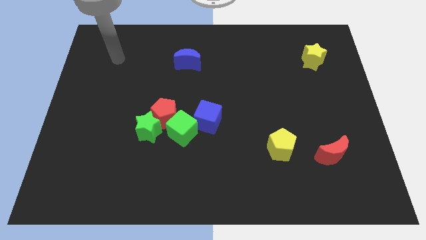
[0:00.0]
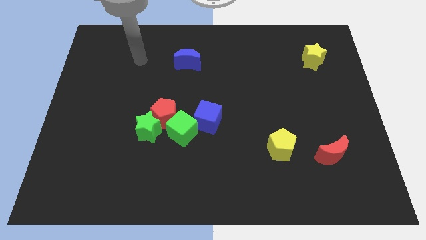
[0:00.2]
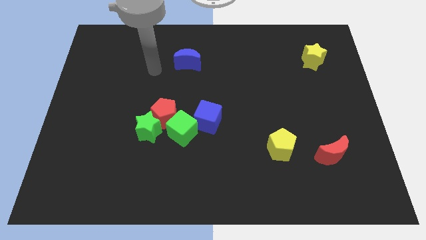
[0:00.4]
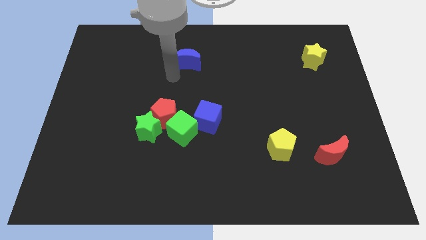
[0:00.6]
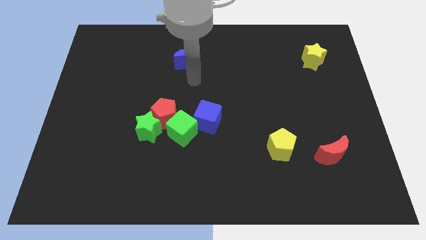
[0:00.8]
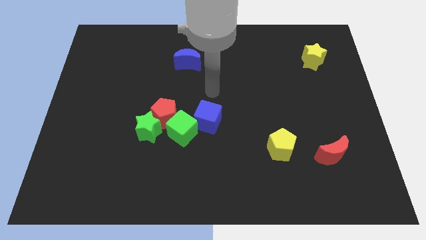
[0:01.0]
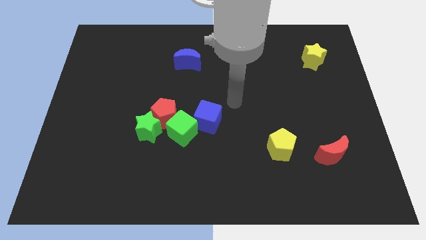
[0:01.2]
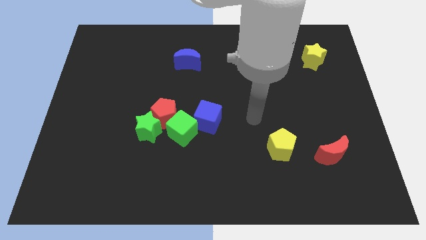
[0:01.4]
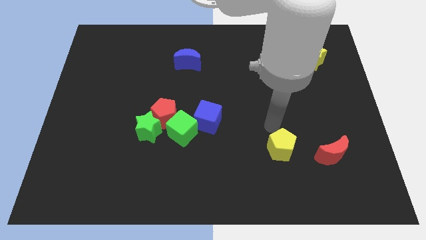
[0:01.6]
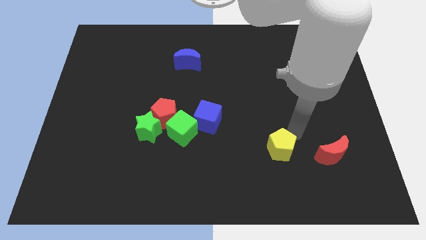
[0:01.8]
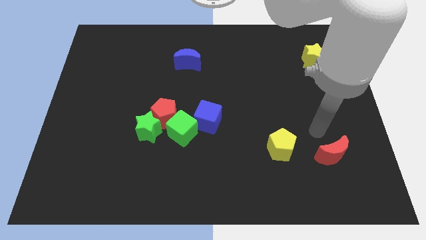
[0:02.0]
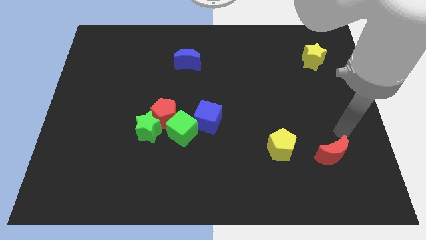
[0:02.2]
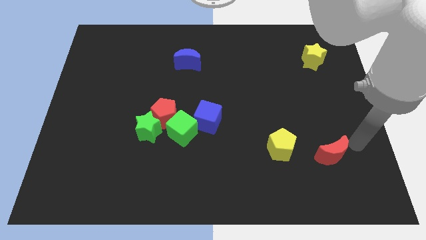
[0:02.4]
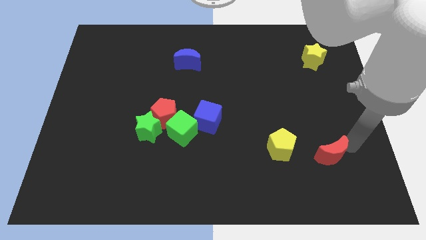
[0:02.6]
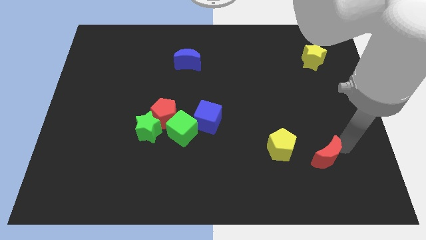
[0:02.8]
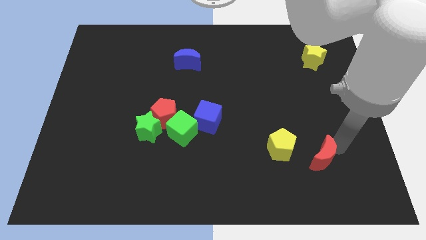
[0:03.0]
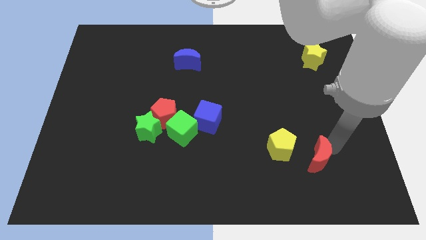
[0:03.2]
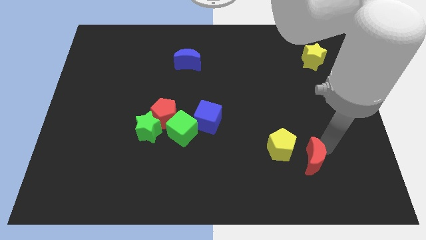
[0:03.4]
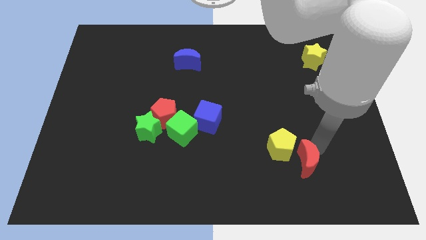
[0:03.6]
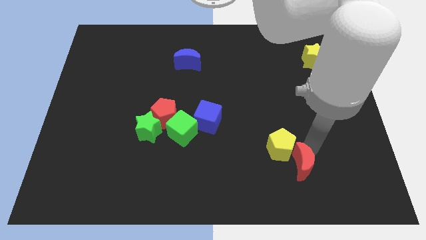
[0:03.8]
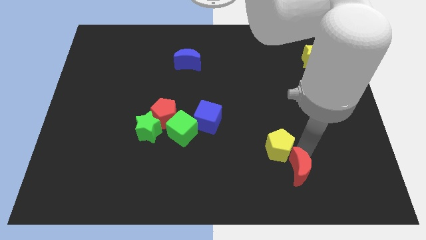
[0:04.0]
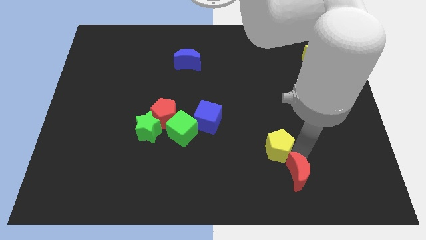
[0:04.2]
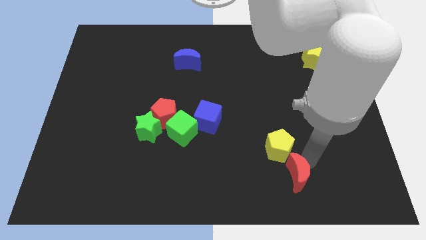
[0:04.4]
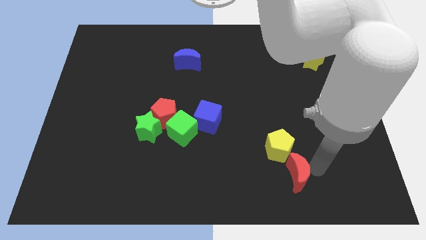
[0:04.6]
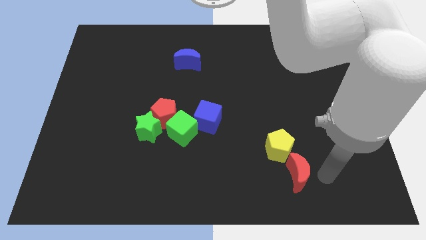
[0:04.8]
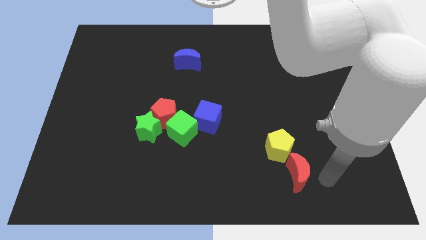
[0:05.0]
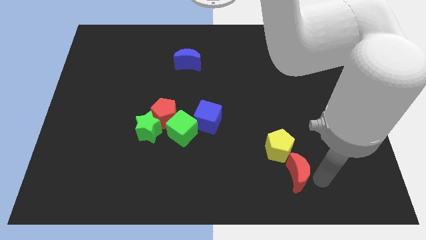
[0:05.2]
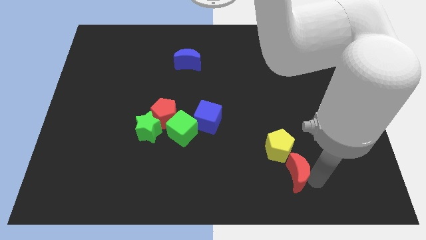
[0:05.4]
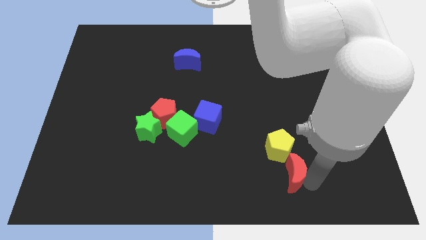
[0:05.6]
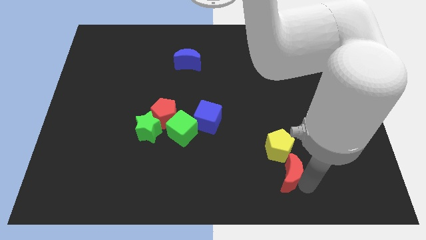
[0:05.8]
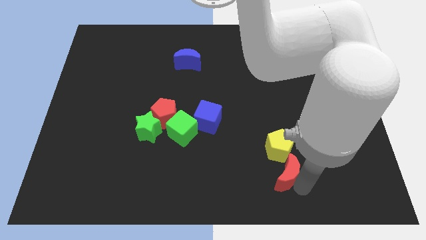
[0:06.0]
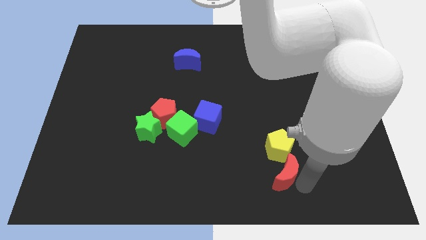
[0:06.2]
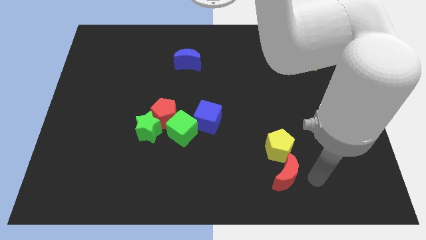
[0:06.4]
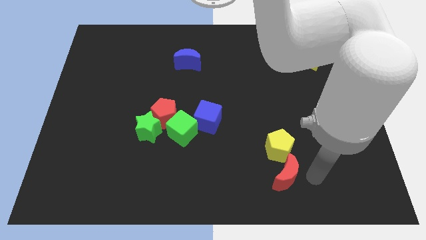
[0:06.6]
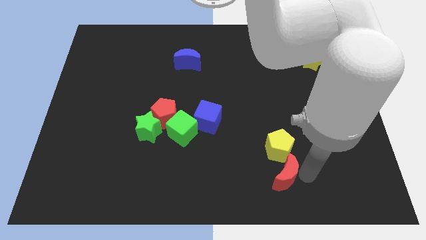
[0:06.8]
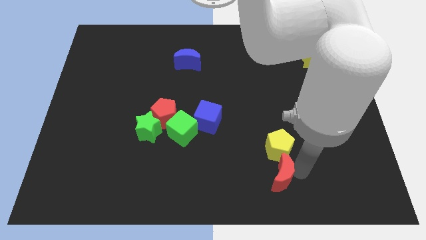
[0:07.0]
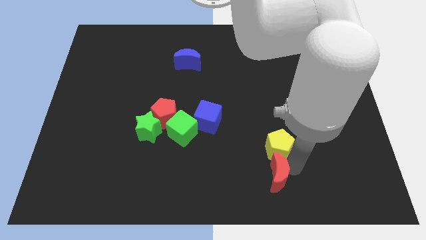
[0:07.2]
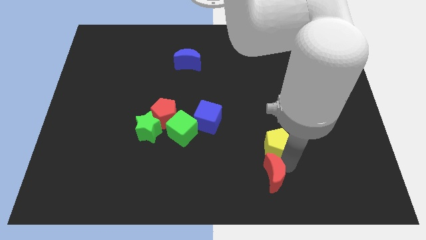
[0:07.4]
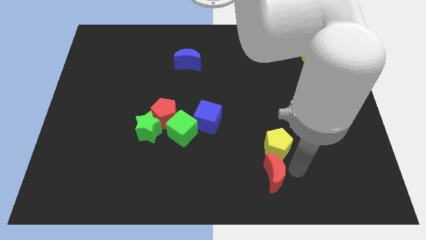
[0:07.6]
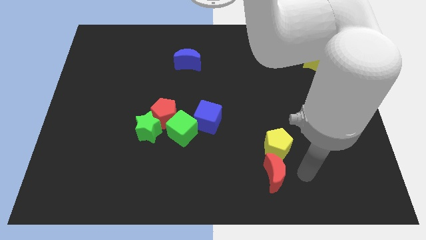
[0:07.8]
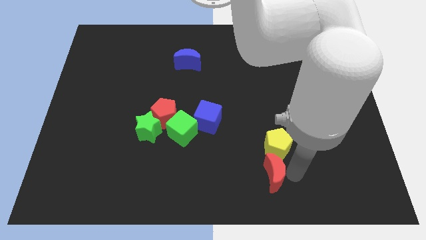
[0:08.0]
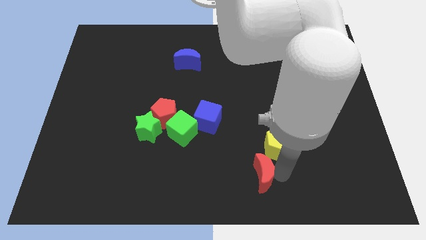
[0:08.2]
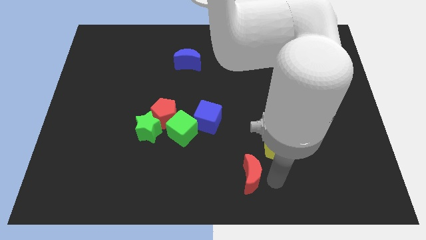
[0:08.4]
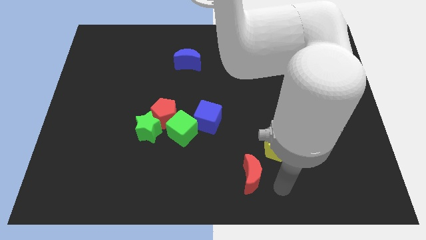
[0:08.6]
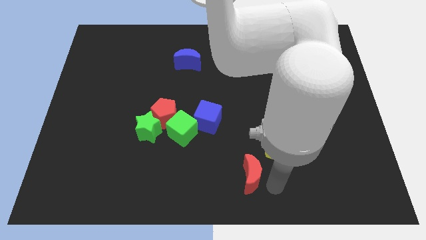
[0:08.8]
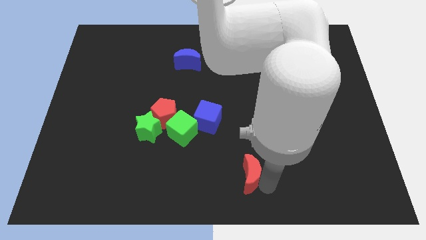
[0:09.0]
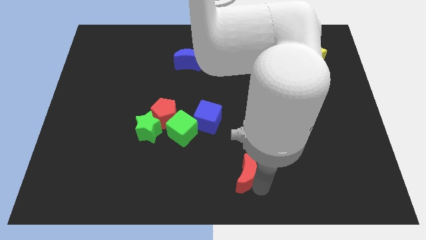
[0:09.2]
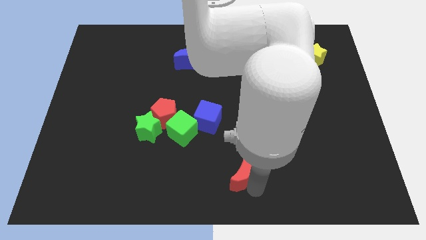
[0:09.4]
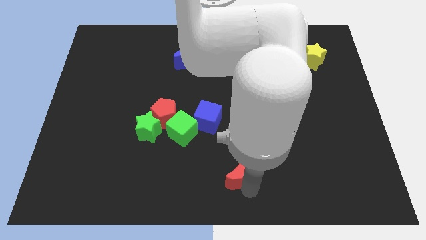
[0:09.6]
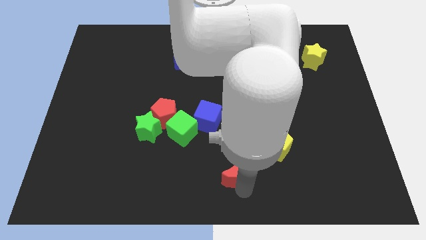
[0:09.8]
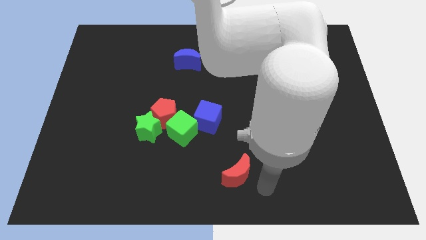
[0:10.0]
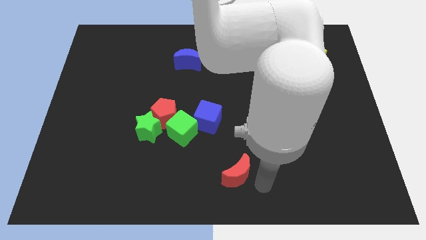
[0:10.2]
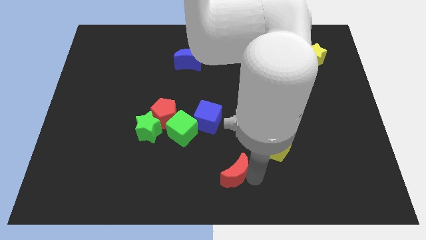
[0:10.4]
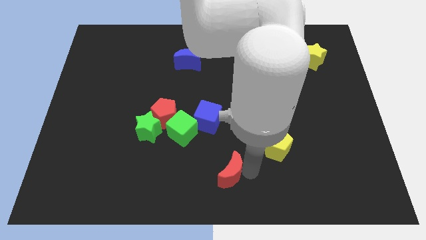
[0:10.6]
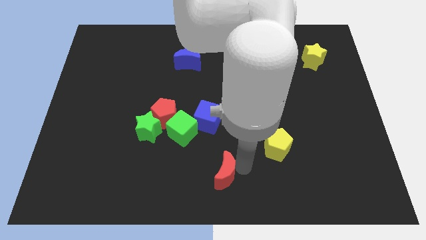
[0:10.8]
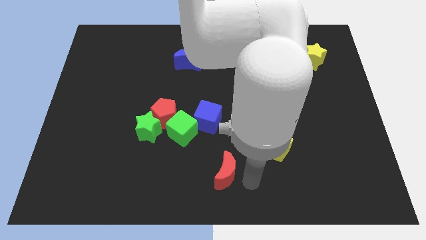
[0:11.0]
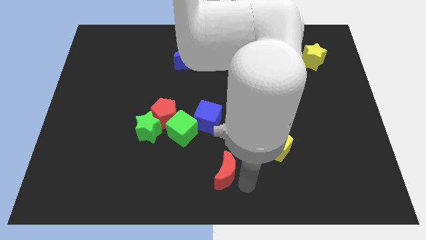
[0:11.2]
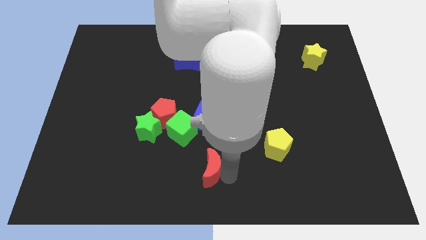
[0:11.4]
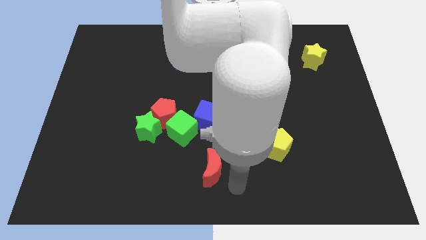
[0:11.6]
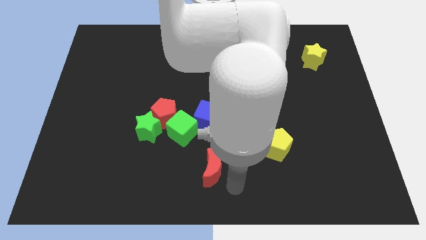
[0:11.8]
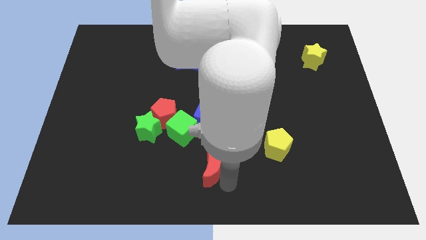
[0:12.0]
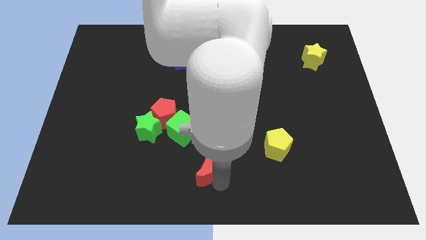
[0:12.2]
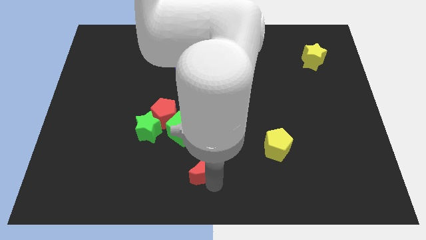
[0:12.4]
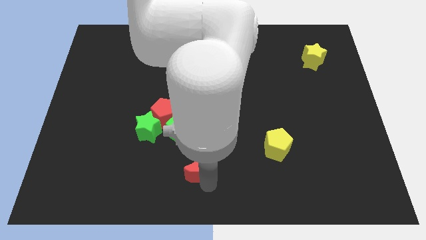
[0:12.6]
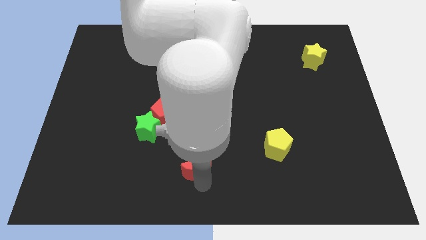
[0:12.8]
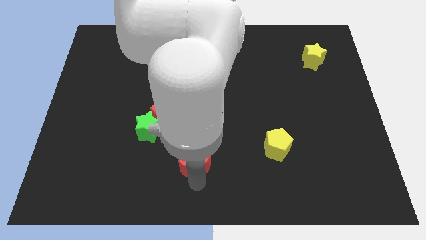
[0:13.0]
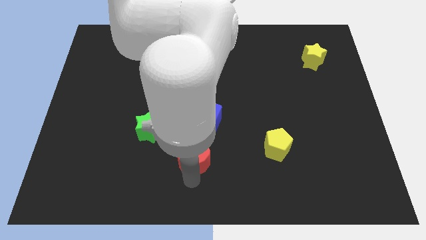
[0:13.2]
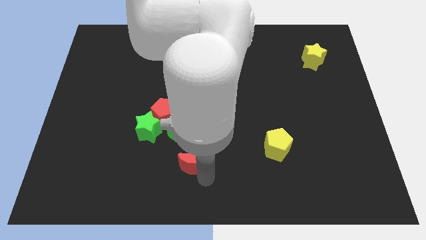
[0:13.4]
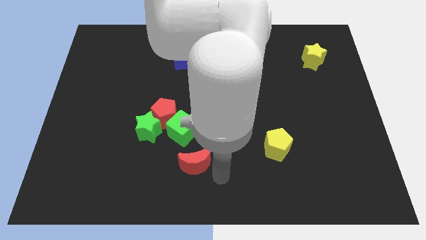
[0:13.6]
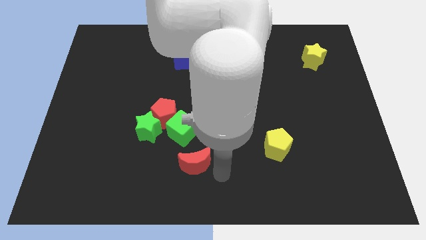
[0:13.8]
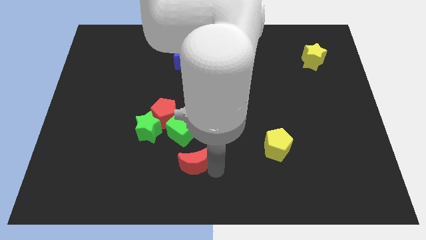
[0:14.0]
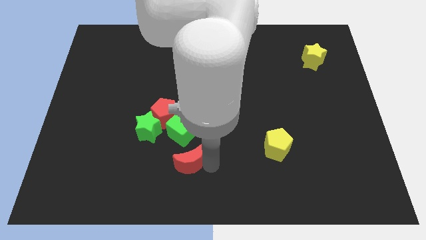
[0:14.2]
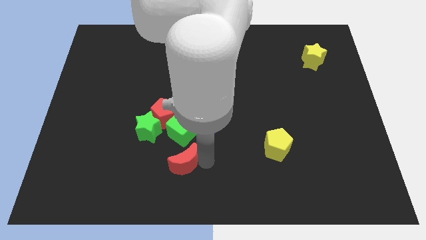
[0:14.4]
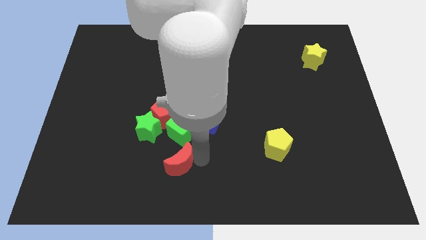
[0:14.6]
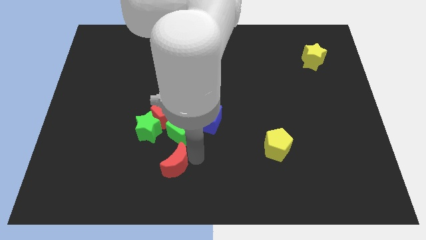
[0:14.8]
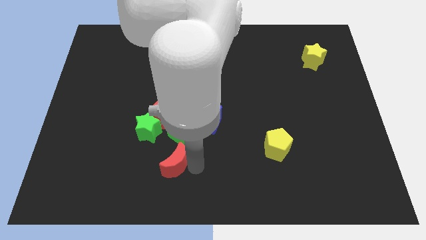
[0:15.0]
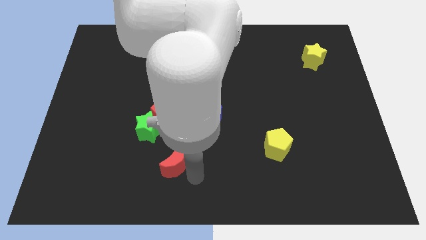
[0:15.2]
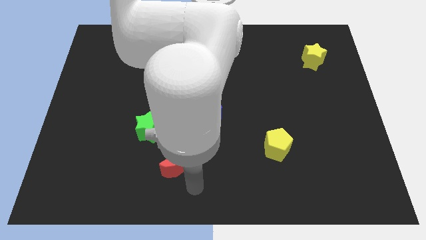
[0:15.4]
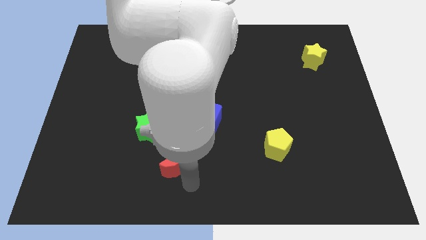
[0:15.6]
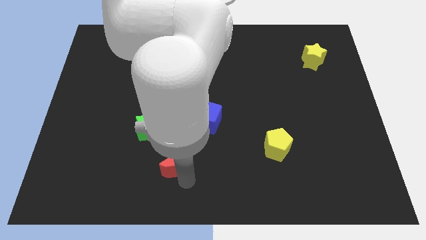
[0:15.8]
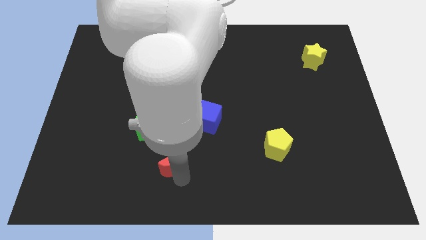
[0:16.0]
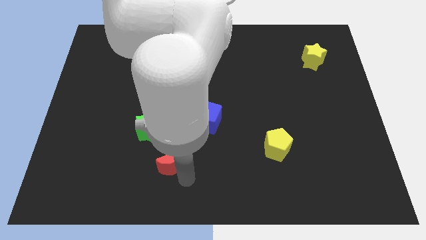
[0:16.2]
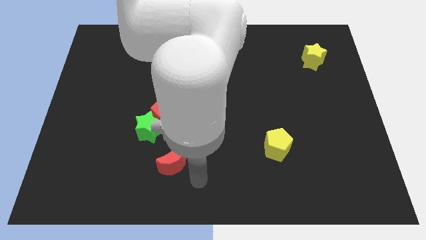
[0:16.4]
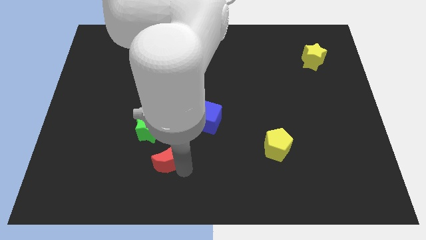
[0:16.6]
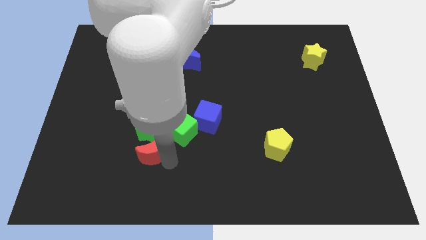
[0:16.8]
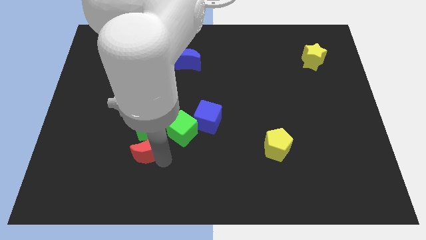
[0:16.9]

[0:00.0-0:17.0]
push the red moon next to the green star
